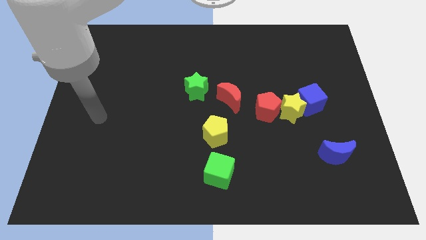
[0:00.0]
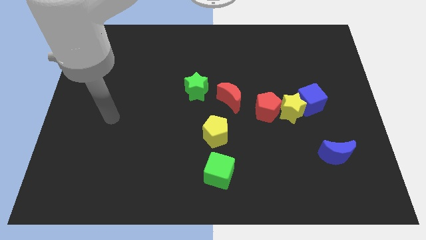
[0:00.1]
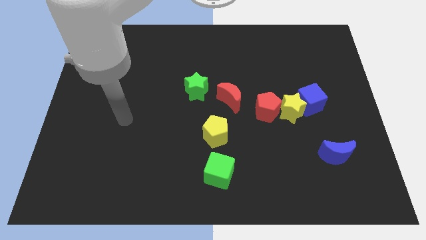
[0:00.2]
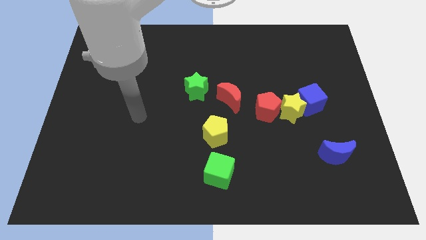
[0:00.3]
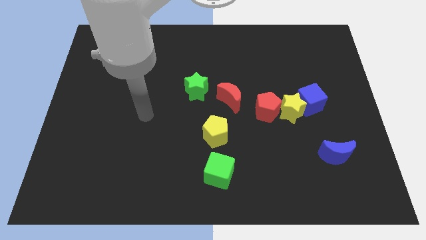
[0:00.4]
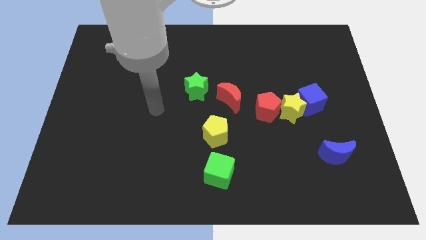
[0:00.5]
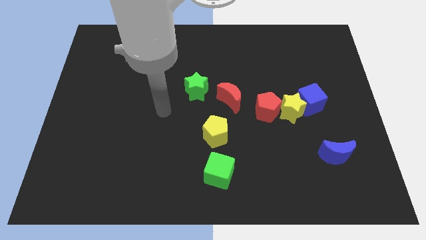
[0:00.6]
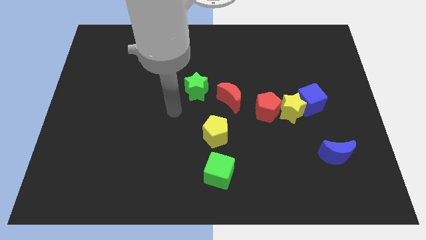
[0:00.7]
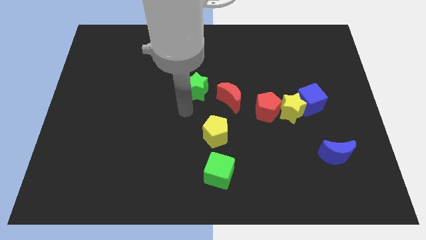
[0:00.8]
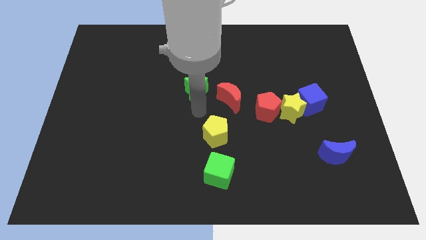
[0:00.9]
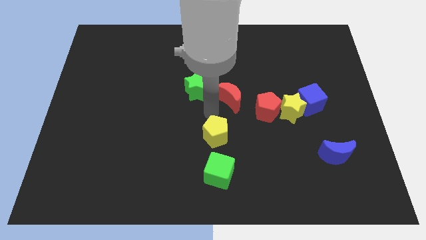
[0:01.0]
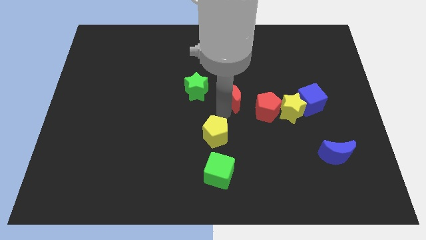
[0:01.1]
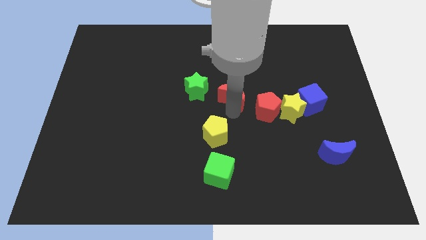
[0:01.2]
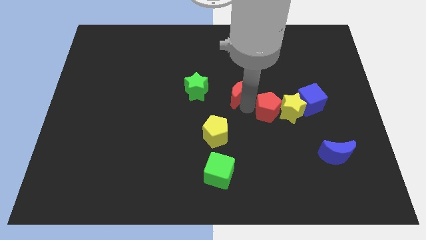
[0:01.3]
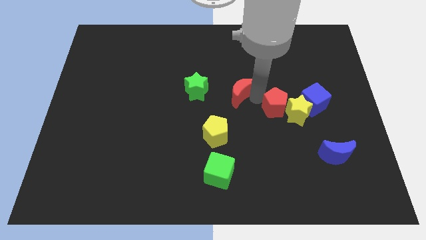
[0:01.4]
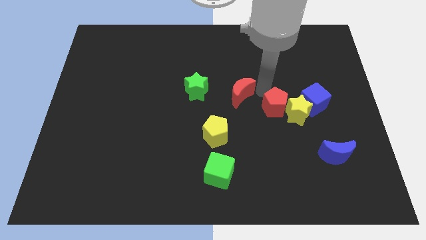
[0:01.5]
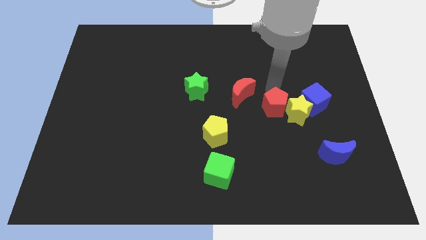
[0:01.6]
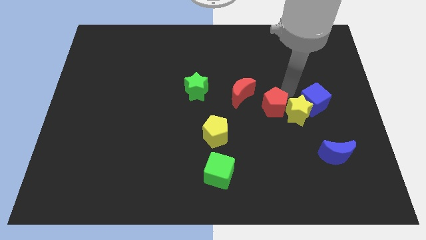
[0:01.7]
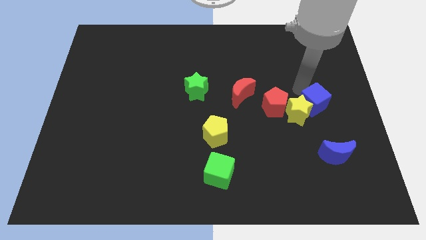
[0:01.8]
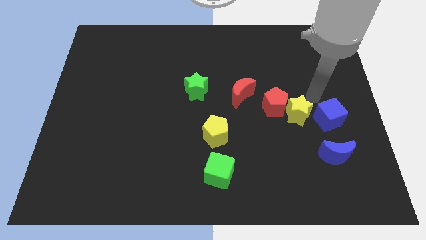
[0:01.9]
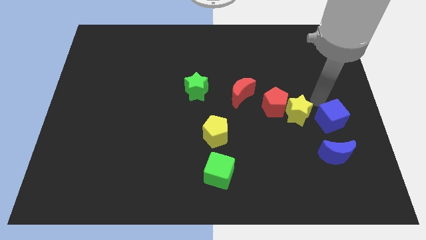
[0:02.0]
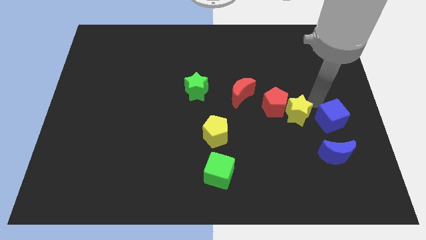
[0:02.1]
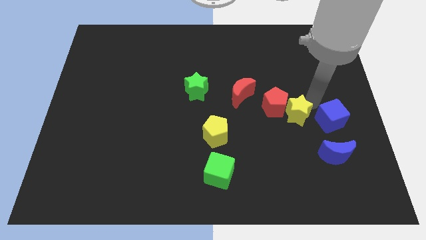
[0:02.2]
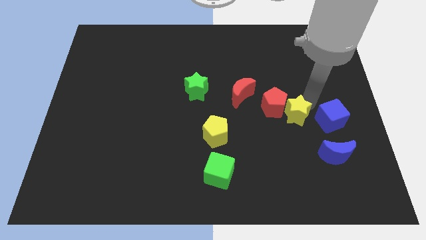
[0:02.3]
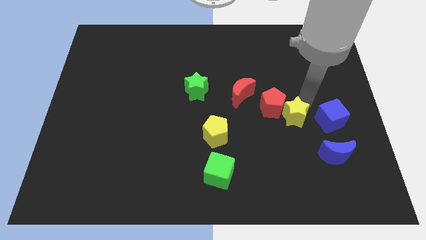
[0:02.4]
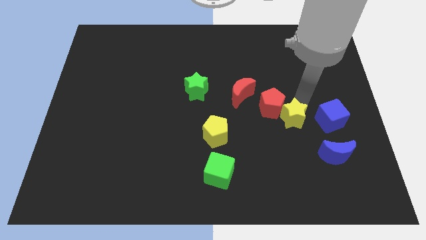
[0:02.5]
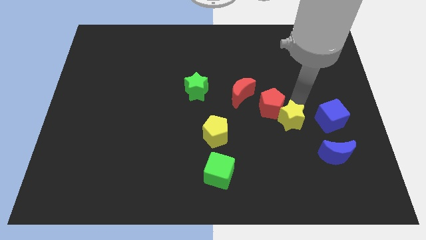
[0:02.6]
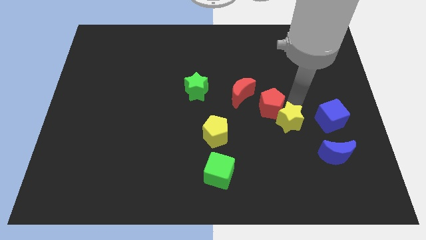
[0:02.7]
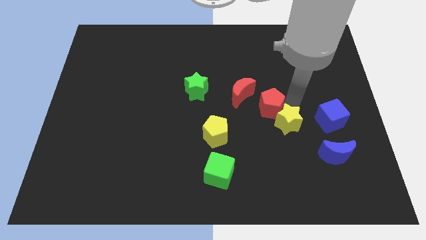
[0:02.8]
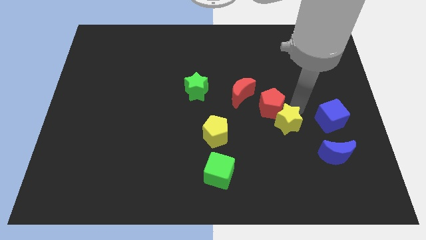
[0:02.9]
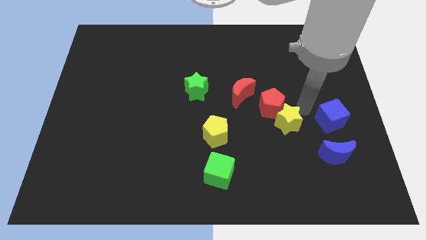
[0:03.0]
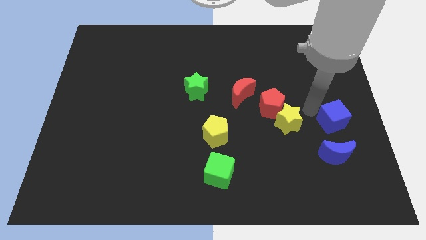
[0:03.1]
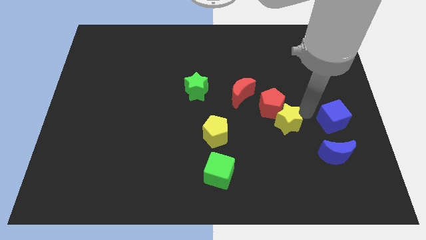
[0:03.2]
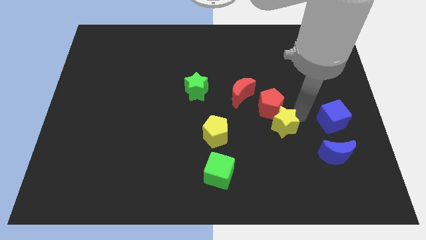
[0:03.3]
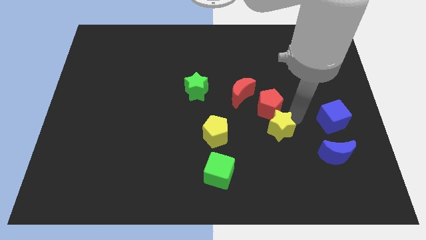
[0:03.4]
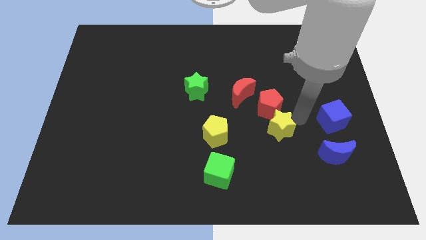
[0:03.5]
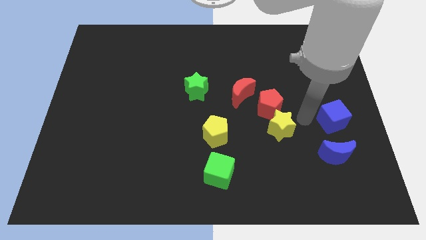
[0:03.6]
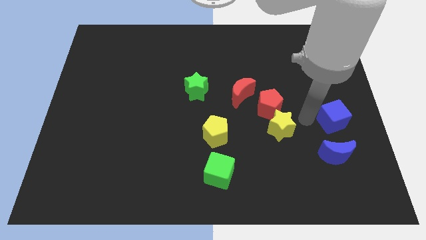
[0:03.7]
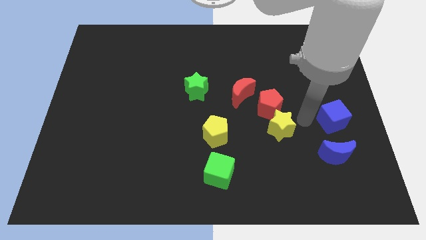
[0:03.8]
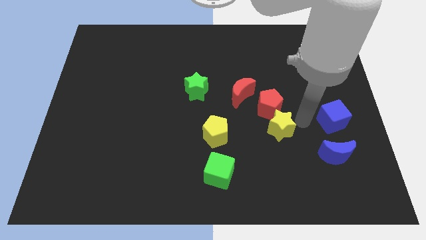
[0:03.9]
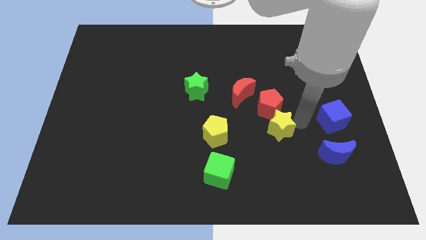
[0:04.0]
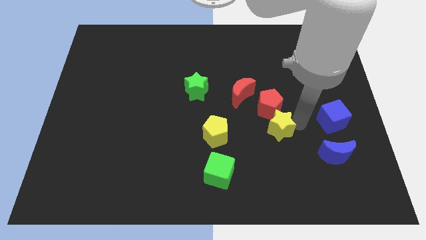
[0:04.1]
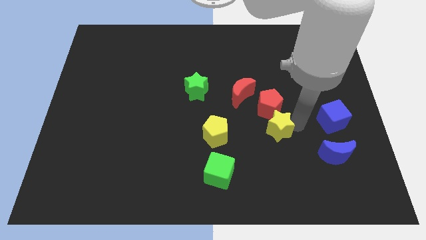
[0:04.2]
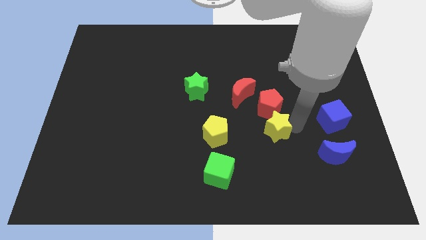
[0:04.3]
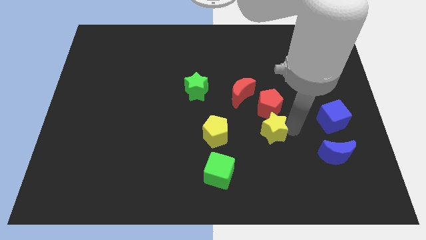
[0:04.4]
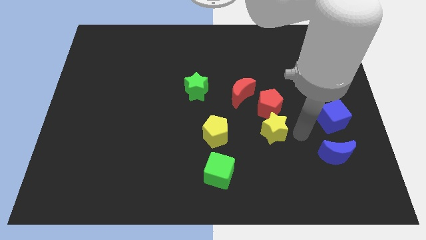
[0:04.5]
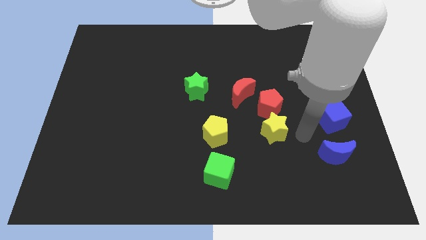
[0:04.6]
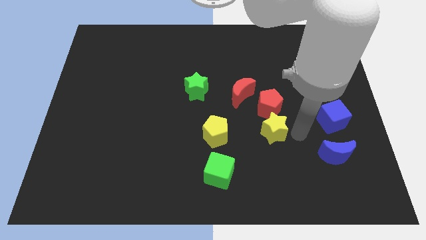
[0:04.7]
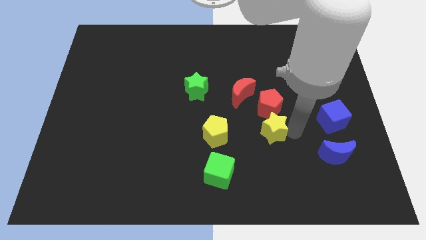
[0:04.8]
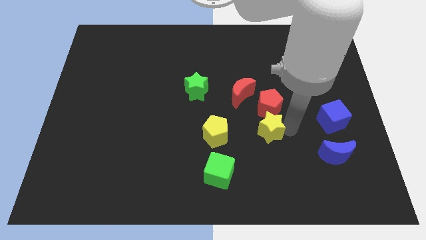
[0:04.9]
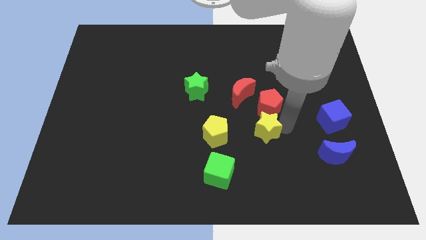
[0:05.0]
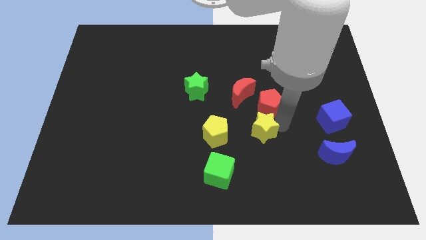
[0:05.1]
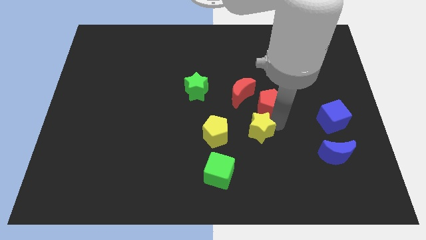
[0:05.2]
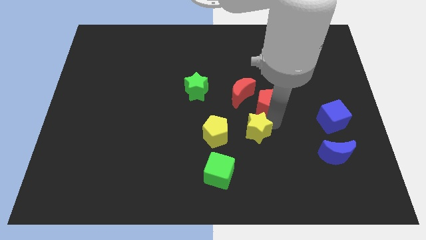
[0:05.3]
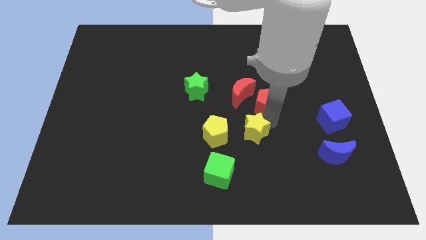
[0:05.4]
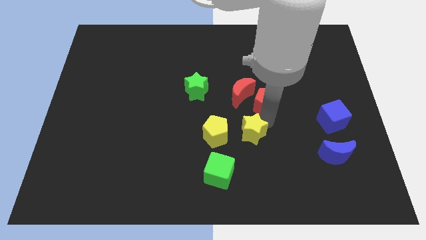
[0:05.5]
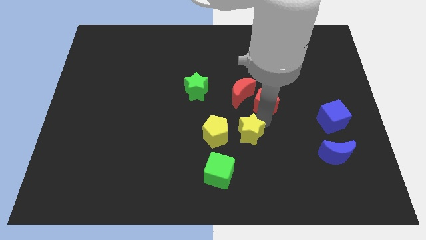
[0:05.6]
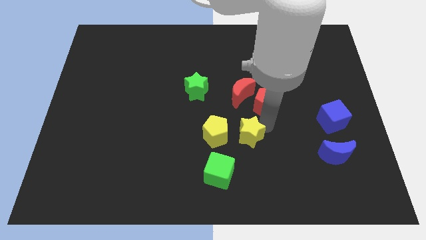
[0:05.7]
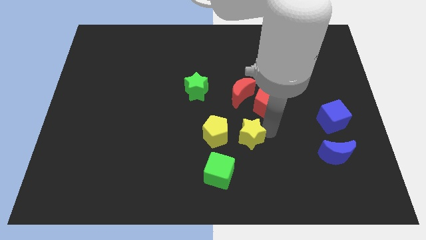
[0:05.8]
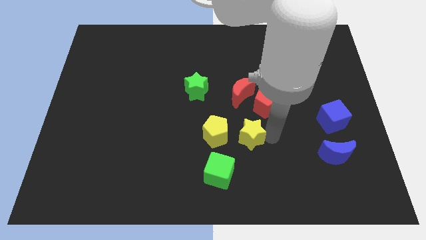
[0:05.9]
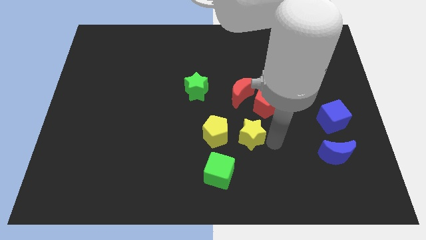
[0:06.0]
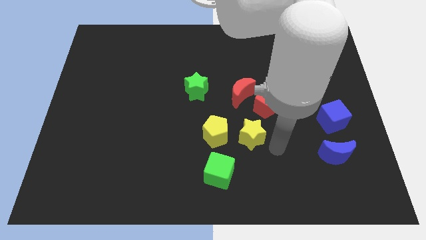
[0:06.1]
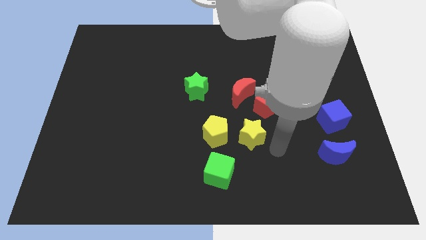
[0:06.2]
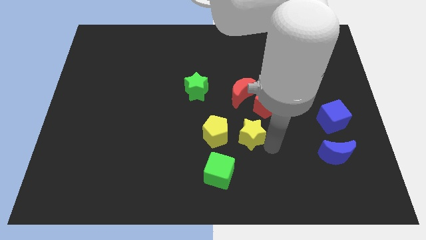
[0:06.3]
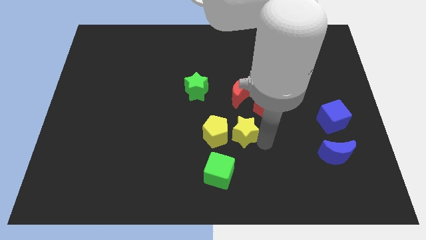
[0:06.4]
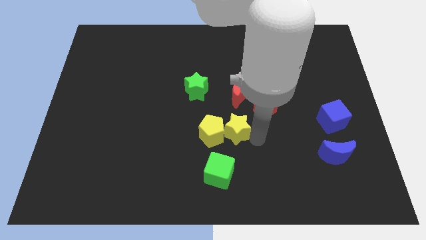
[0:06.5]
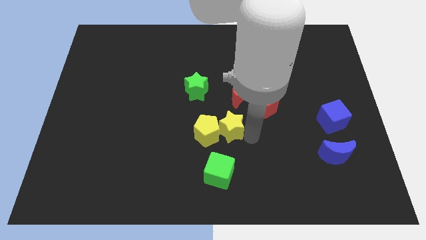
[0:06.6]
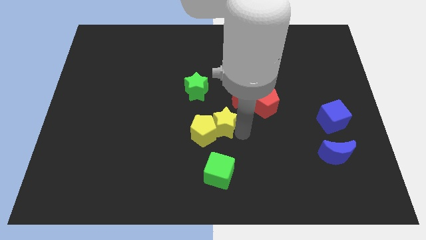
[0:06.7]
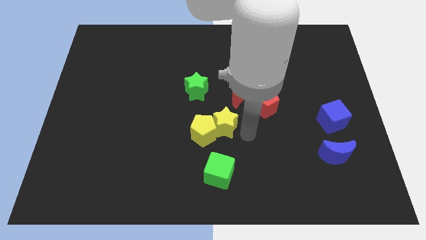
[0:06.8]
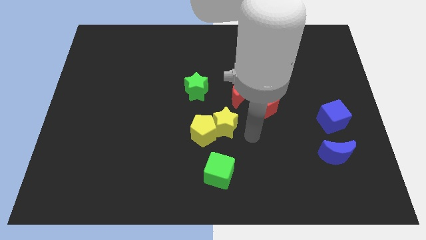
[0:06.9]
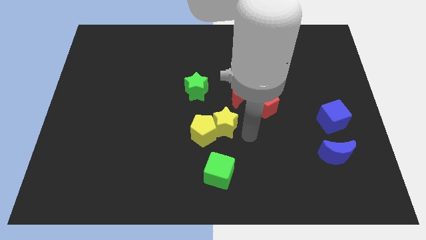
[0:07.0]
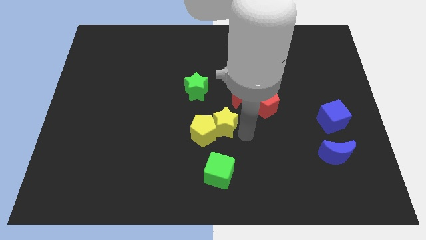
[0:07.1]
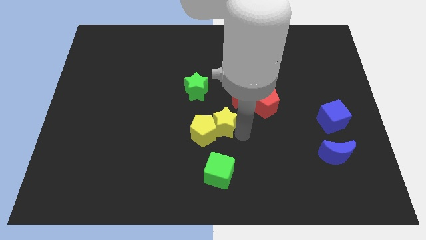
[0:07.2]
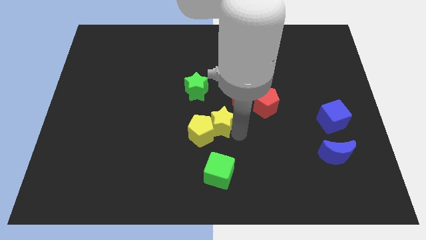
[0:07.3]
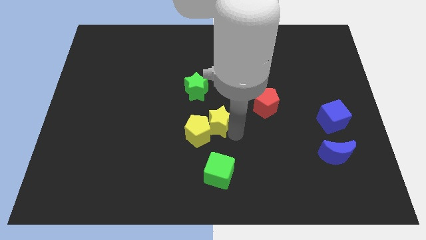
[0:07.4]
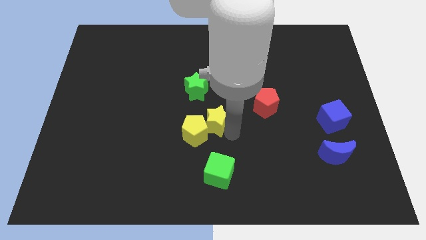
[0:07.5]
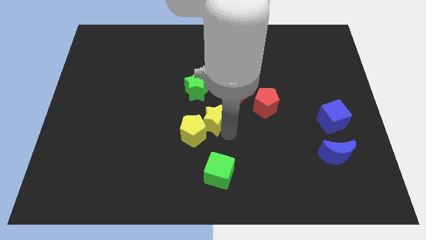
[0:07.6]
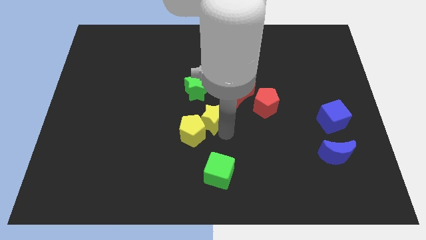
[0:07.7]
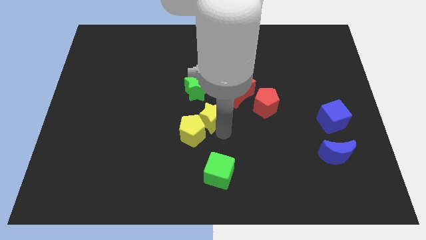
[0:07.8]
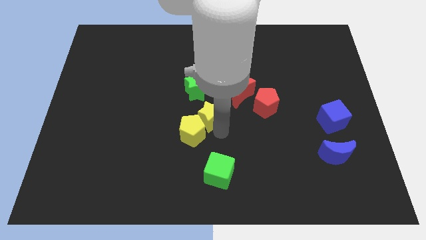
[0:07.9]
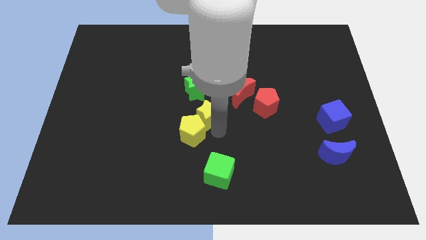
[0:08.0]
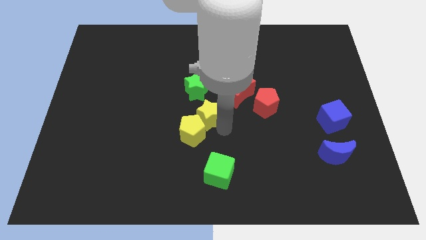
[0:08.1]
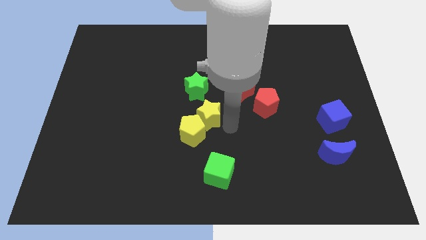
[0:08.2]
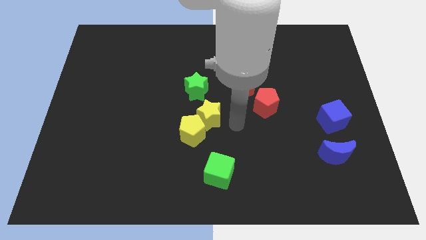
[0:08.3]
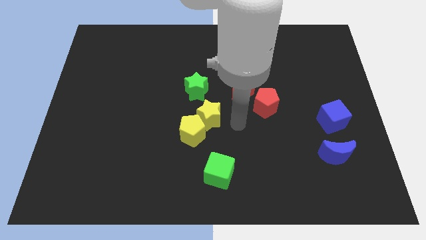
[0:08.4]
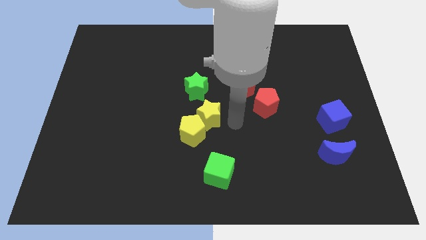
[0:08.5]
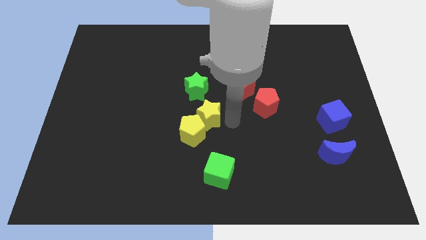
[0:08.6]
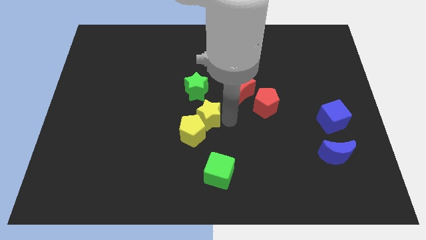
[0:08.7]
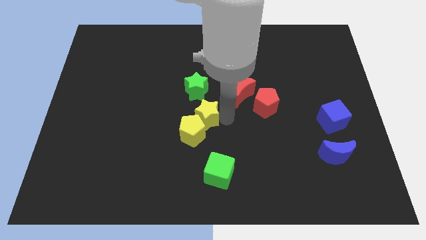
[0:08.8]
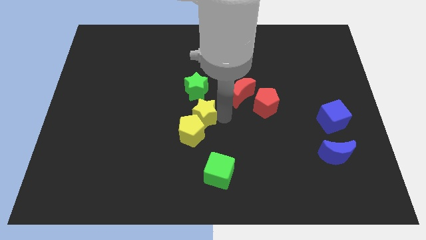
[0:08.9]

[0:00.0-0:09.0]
slide the yellow star to the left
